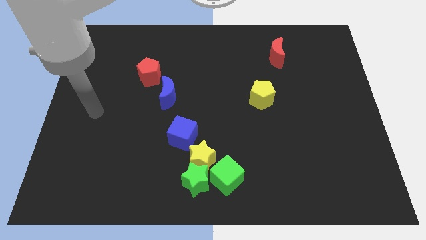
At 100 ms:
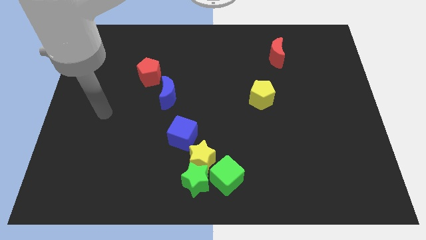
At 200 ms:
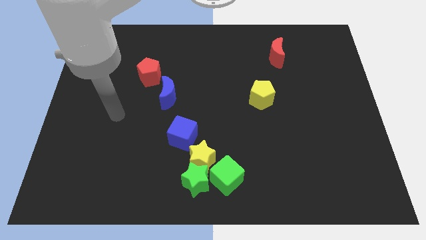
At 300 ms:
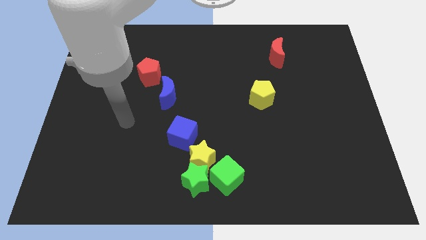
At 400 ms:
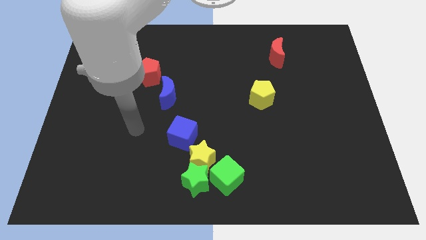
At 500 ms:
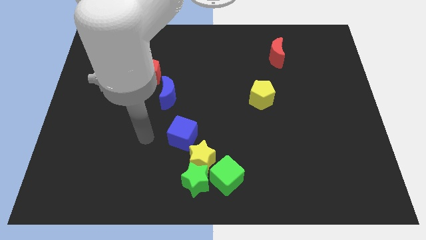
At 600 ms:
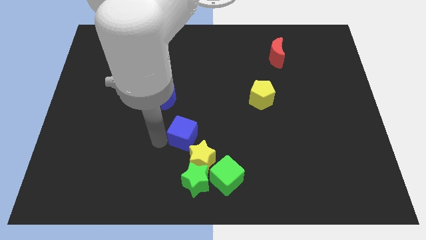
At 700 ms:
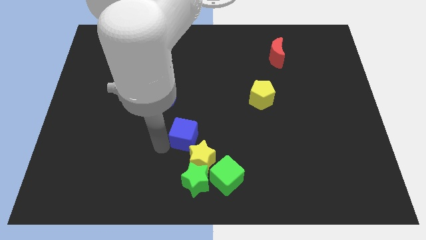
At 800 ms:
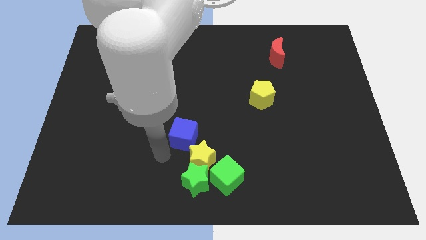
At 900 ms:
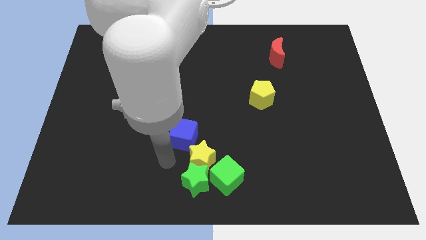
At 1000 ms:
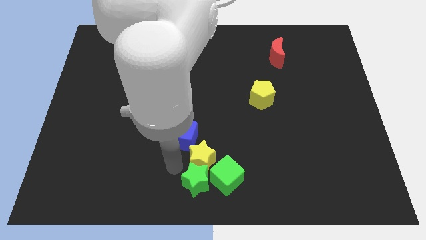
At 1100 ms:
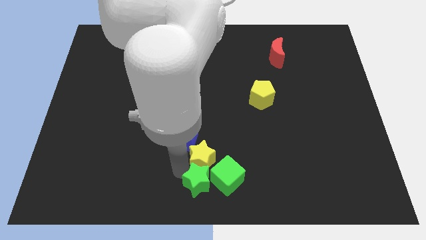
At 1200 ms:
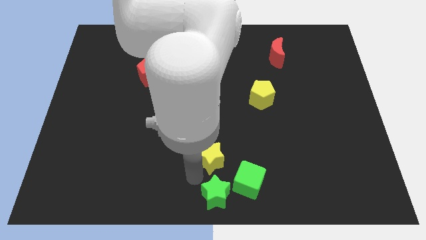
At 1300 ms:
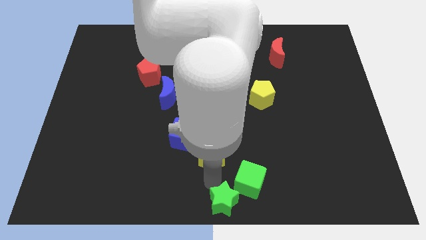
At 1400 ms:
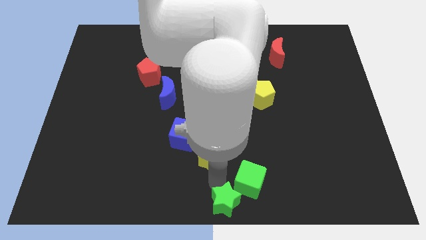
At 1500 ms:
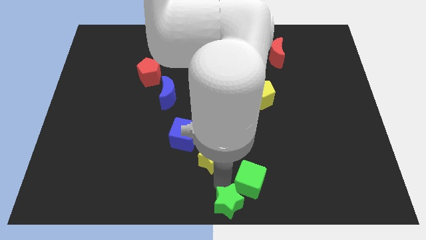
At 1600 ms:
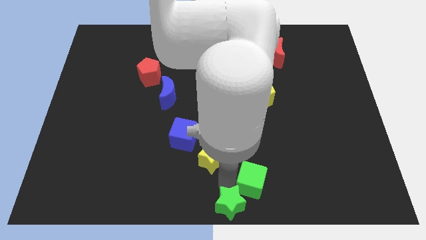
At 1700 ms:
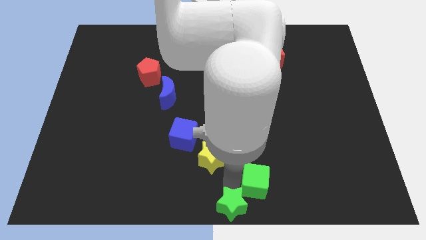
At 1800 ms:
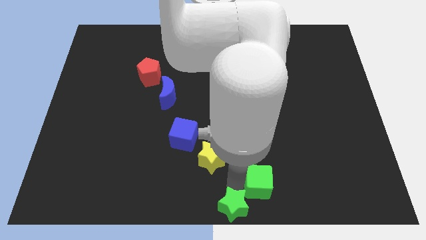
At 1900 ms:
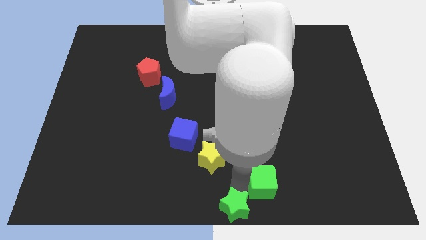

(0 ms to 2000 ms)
move the green cube slightly right

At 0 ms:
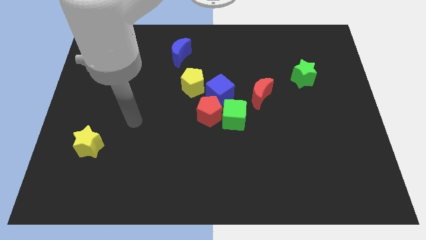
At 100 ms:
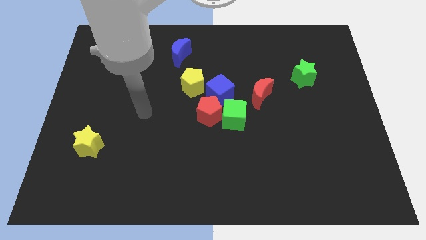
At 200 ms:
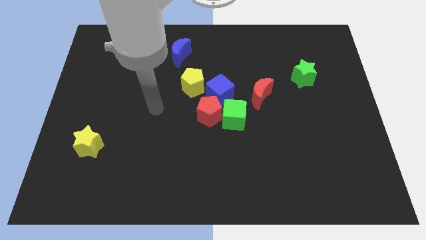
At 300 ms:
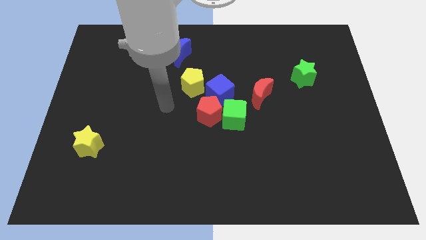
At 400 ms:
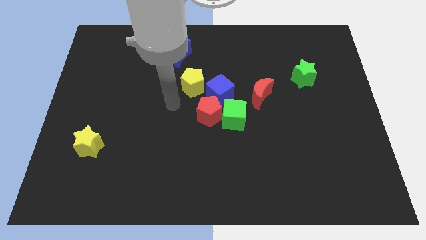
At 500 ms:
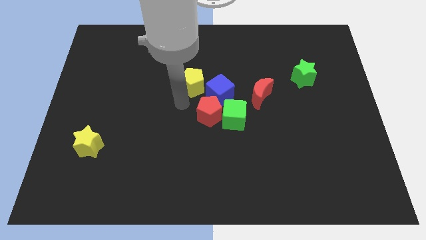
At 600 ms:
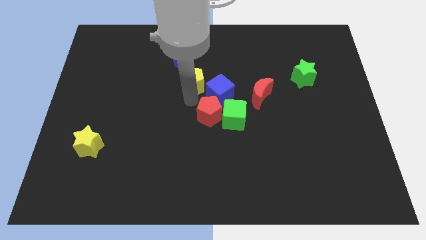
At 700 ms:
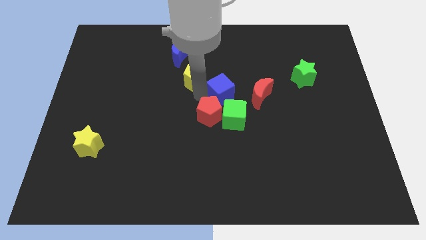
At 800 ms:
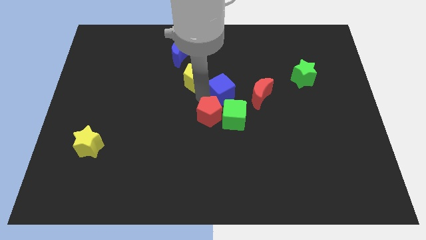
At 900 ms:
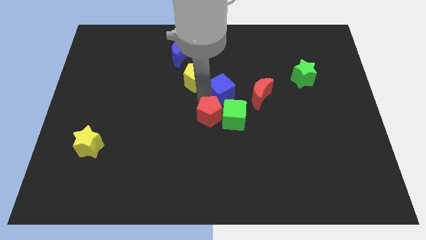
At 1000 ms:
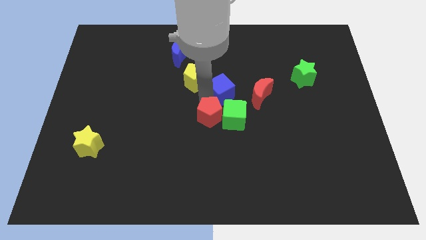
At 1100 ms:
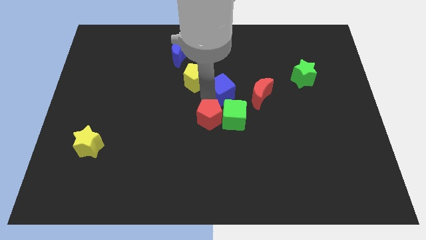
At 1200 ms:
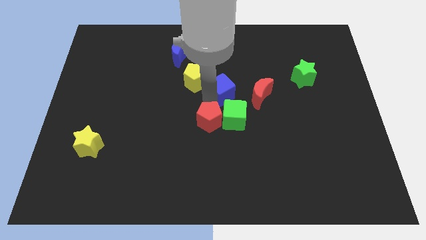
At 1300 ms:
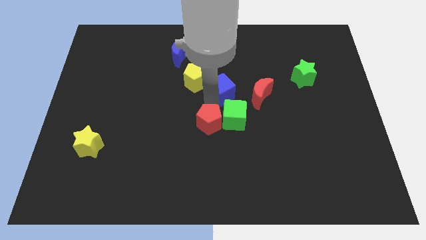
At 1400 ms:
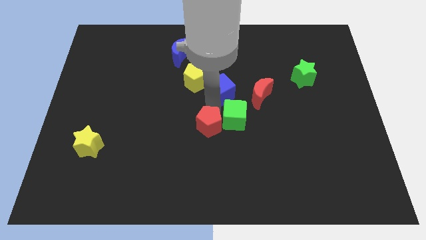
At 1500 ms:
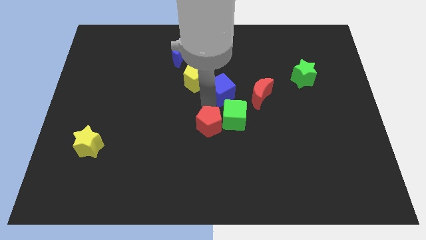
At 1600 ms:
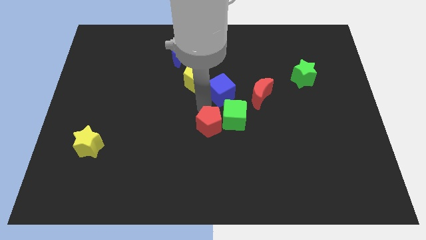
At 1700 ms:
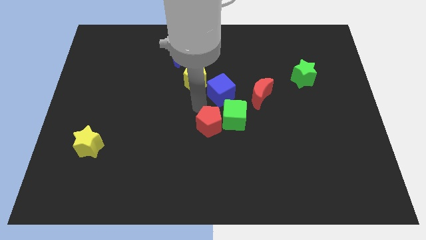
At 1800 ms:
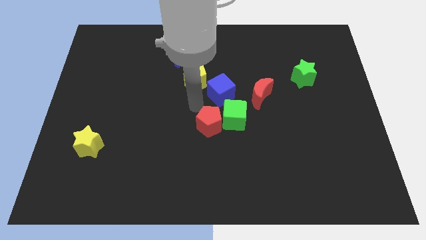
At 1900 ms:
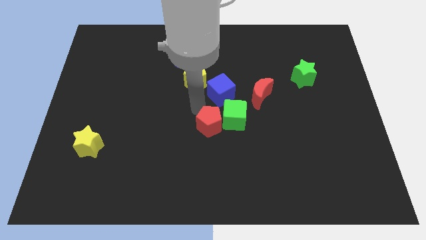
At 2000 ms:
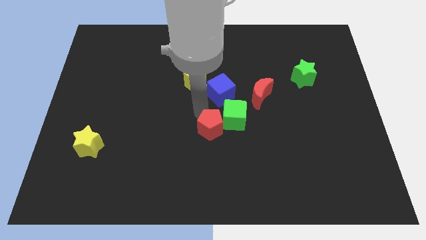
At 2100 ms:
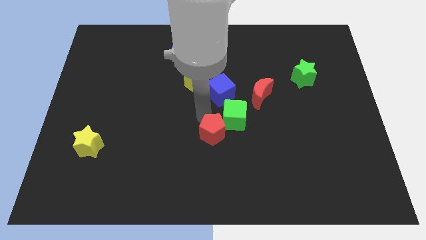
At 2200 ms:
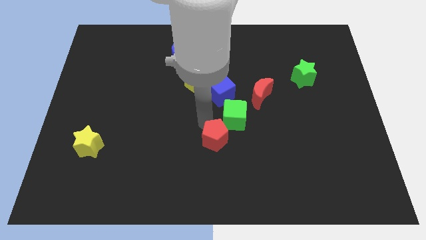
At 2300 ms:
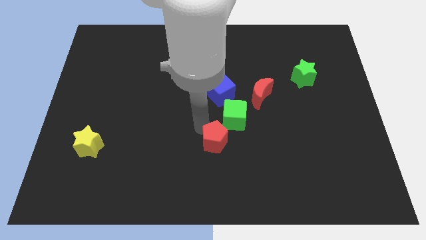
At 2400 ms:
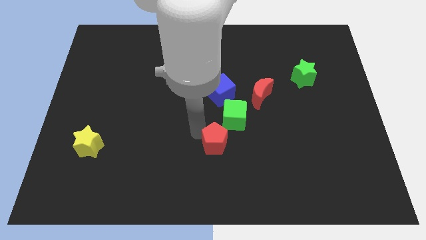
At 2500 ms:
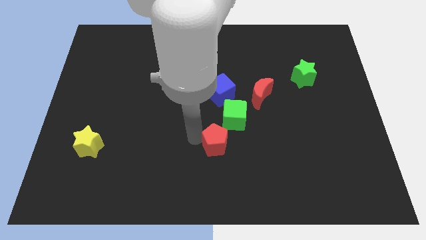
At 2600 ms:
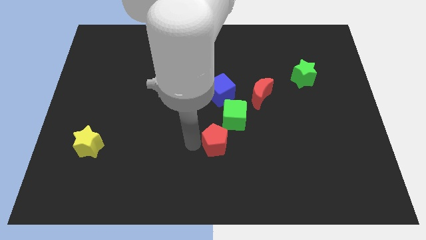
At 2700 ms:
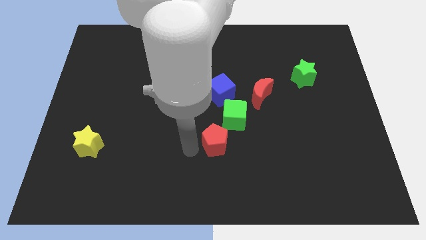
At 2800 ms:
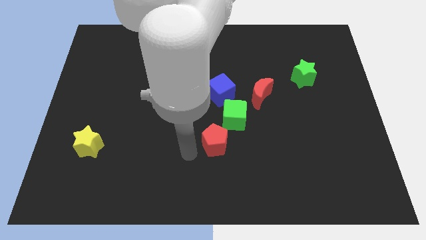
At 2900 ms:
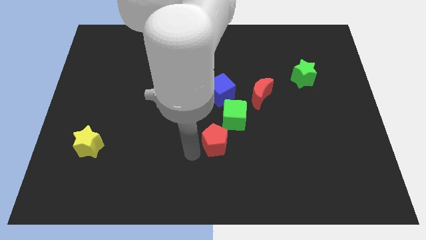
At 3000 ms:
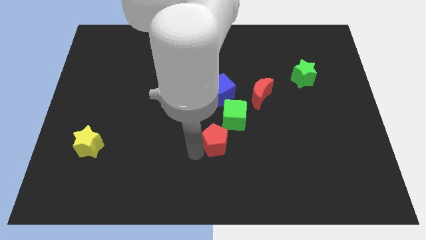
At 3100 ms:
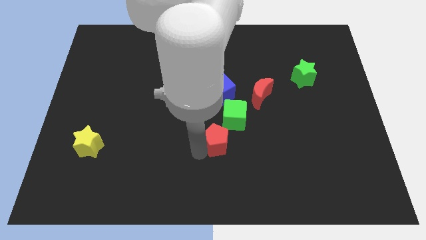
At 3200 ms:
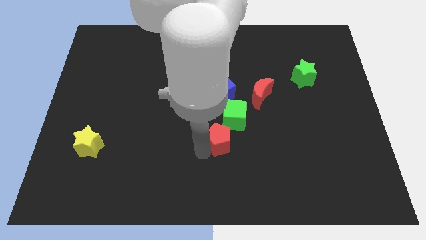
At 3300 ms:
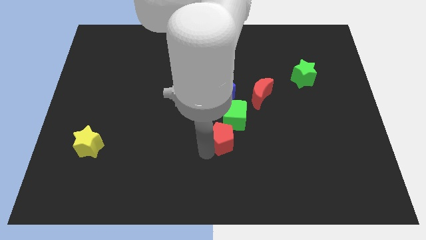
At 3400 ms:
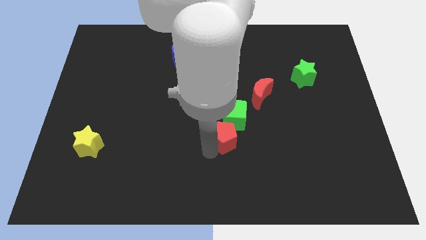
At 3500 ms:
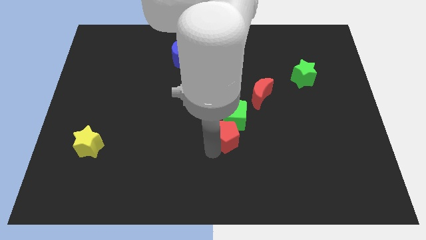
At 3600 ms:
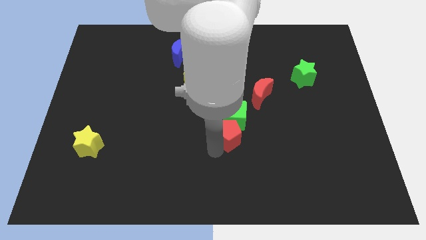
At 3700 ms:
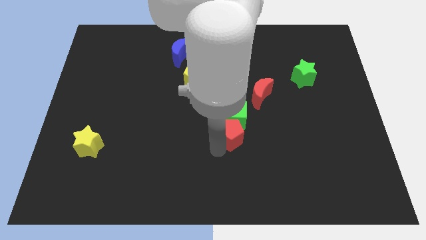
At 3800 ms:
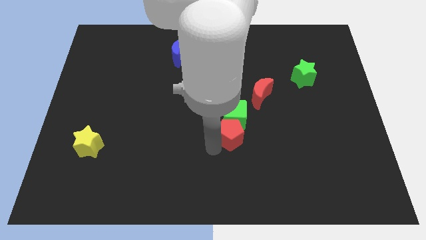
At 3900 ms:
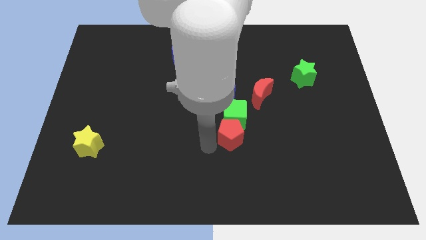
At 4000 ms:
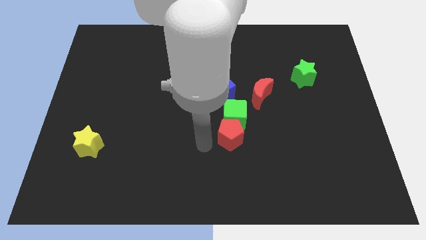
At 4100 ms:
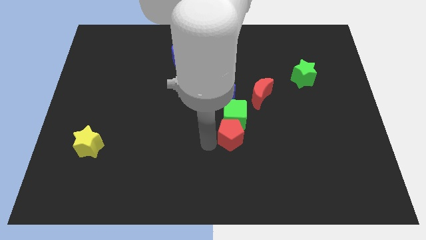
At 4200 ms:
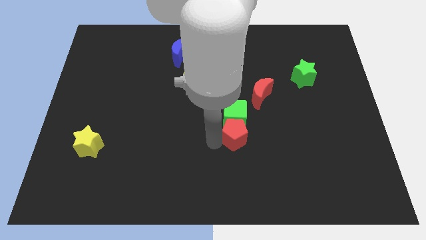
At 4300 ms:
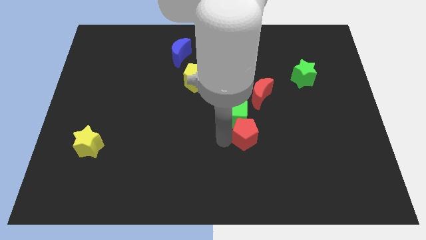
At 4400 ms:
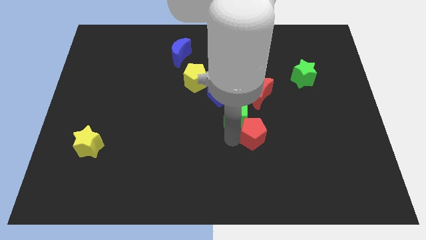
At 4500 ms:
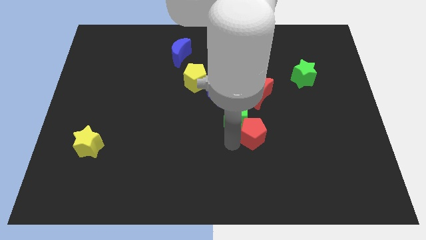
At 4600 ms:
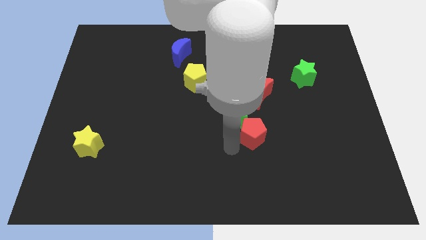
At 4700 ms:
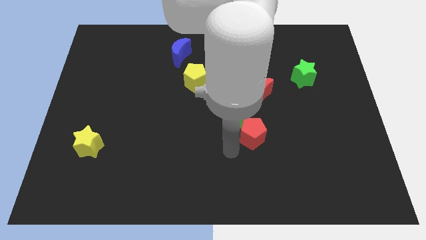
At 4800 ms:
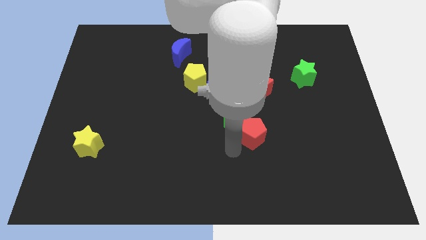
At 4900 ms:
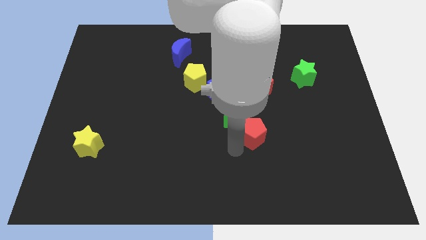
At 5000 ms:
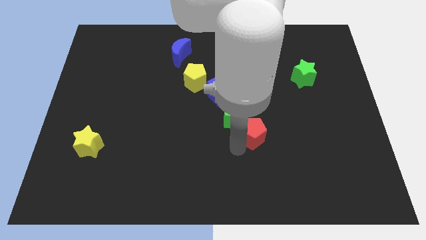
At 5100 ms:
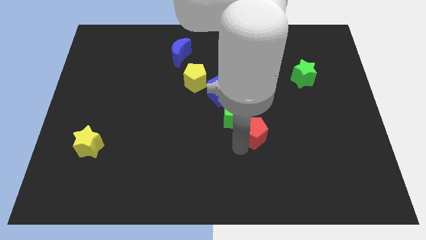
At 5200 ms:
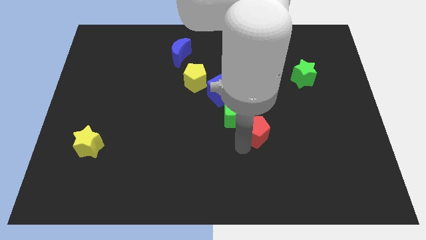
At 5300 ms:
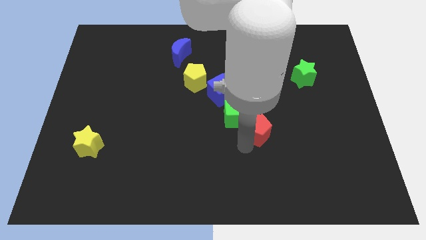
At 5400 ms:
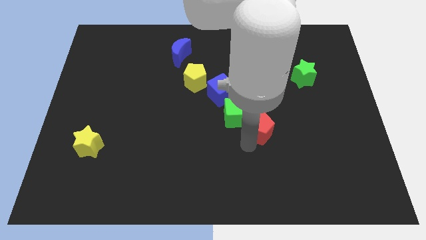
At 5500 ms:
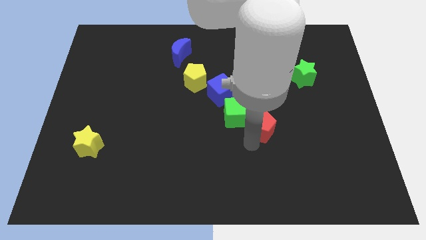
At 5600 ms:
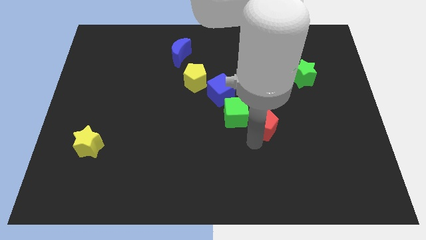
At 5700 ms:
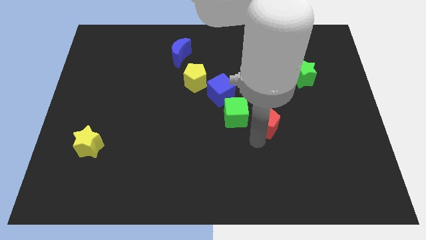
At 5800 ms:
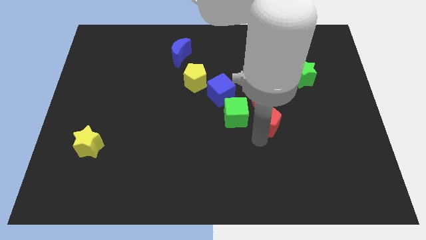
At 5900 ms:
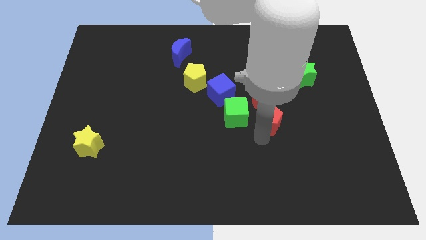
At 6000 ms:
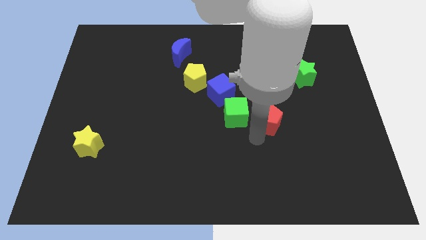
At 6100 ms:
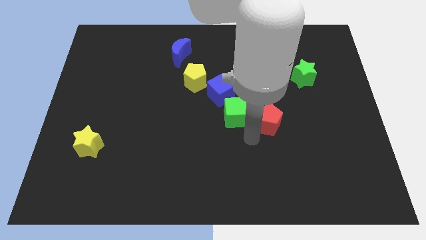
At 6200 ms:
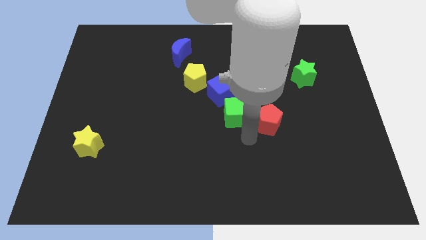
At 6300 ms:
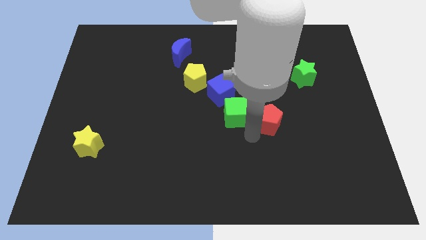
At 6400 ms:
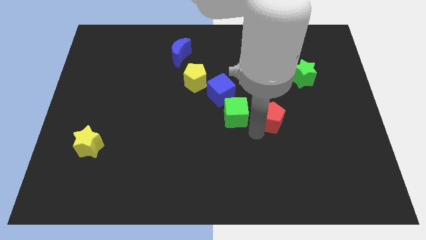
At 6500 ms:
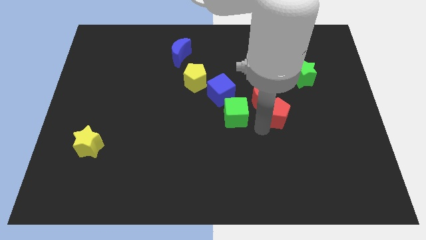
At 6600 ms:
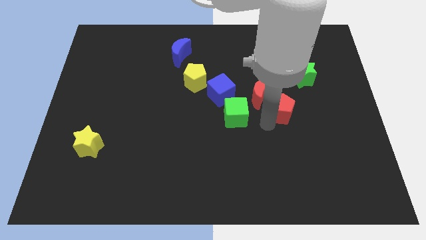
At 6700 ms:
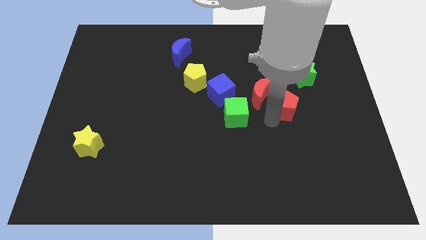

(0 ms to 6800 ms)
push the red pentagon up and to the right somewhat
